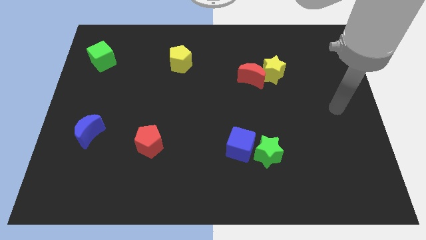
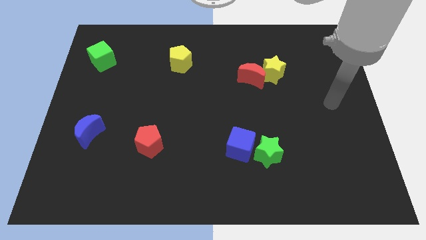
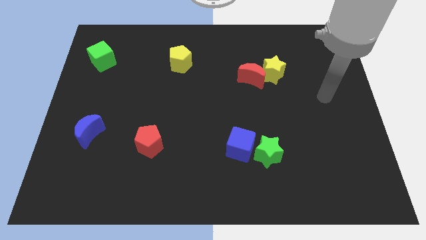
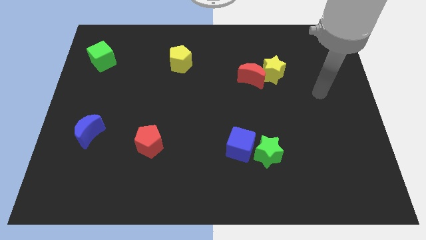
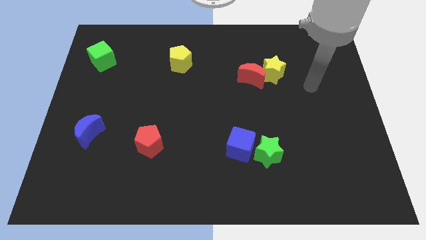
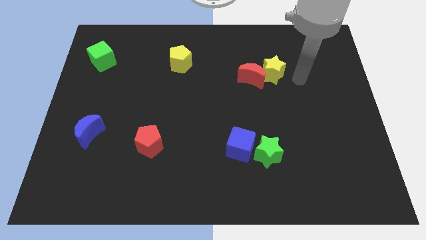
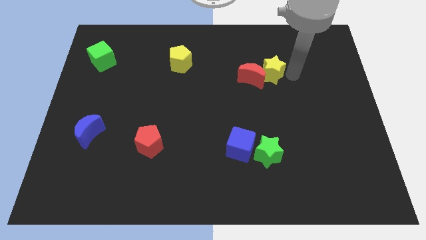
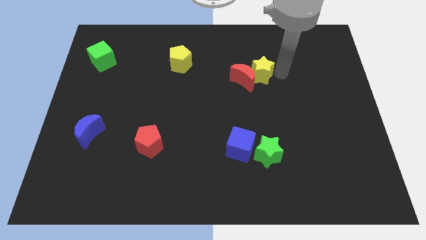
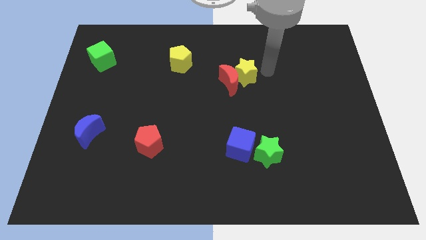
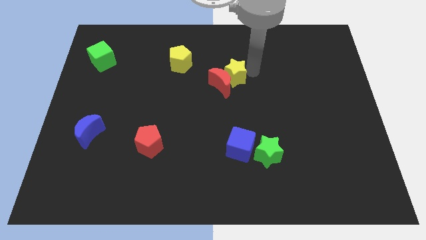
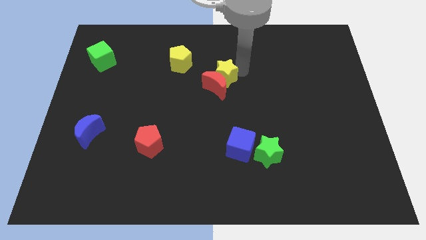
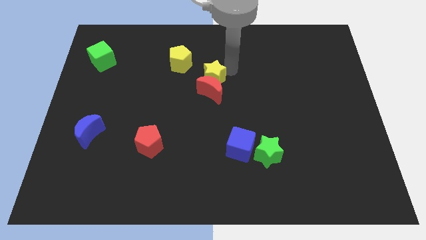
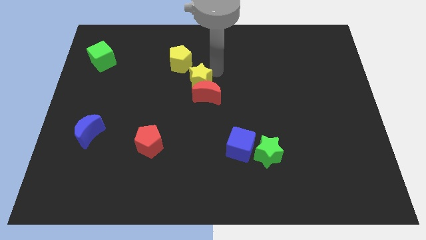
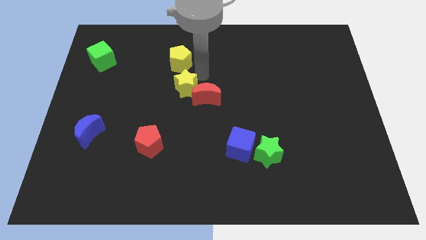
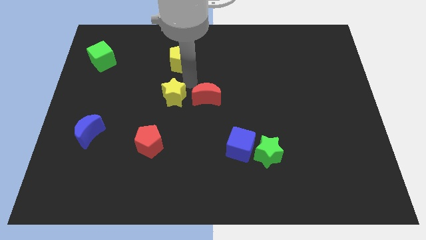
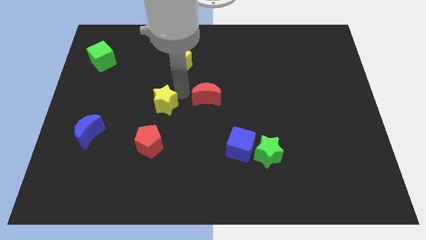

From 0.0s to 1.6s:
move the red moon away from the yellow star

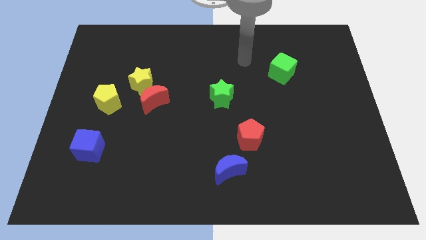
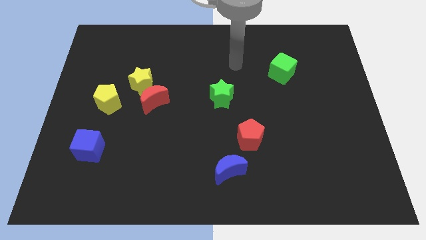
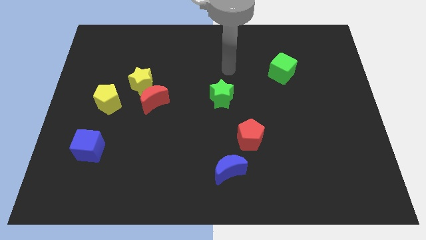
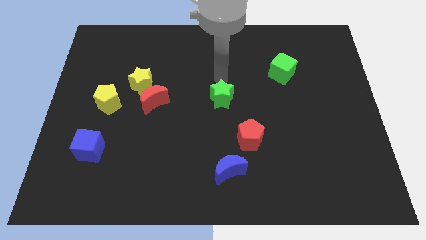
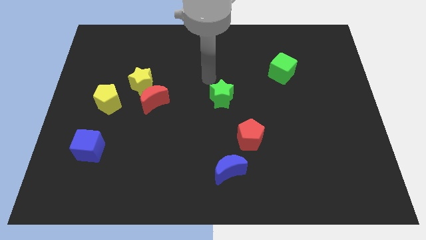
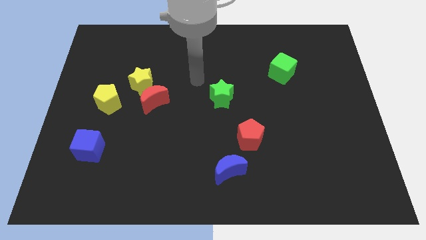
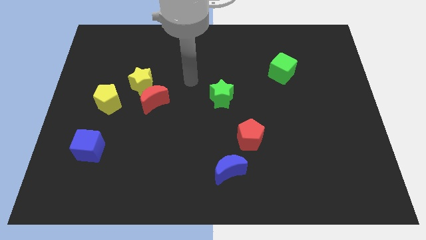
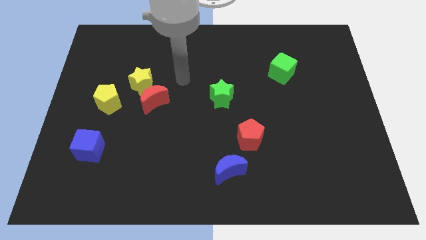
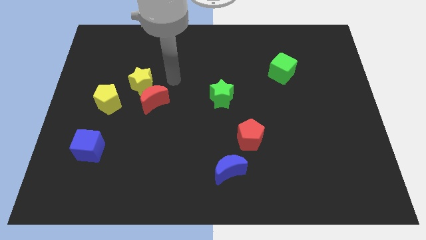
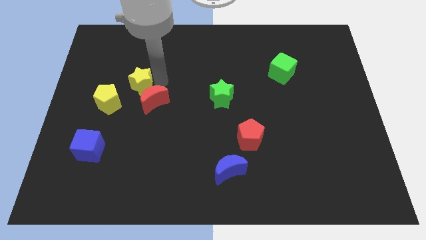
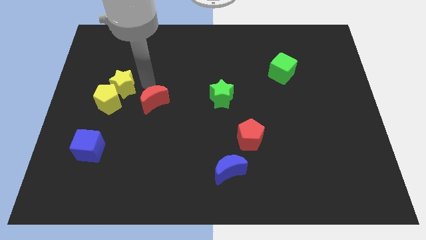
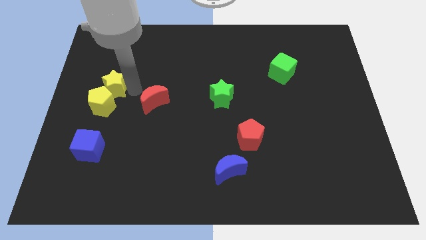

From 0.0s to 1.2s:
pull the red moon apart from the yellow star

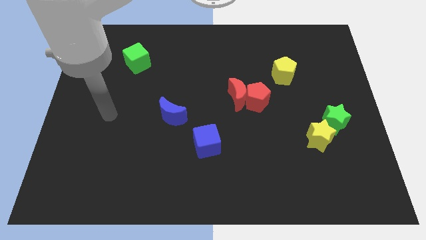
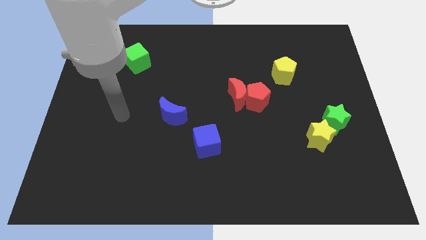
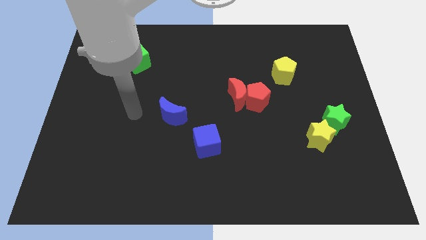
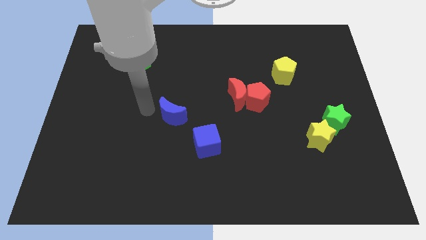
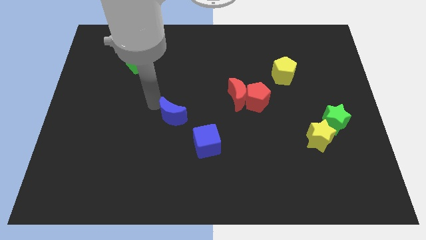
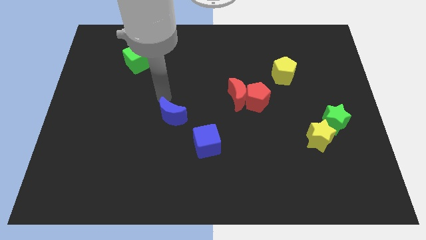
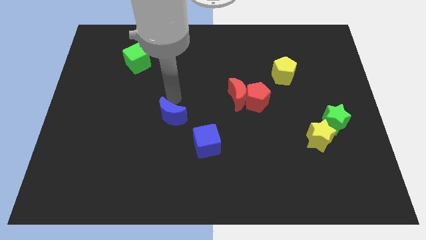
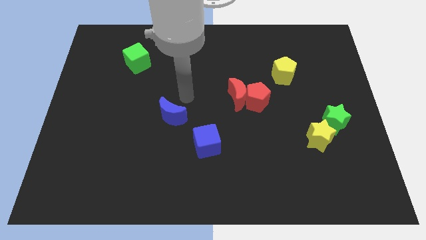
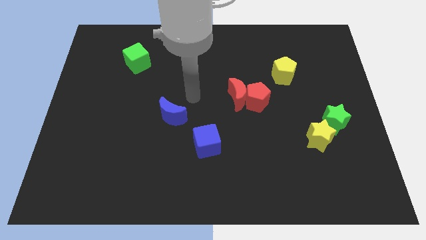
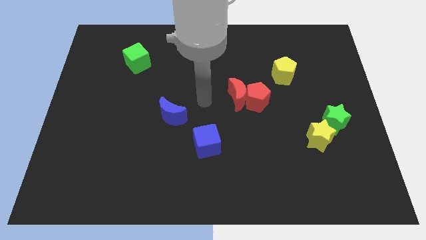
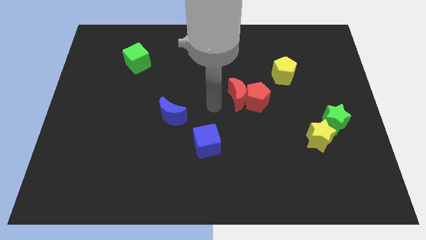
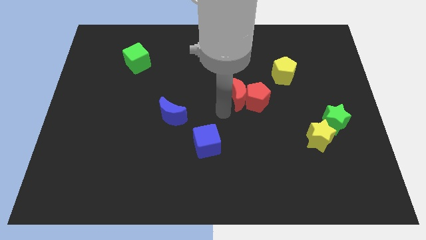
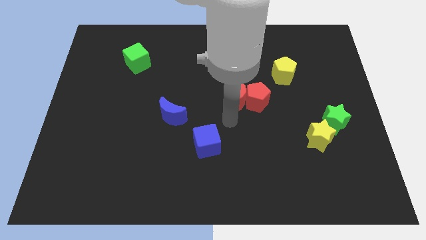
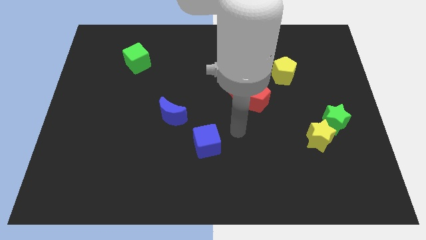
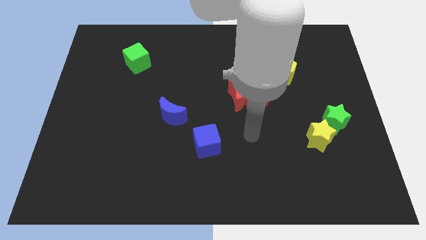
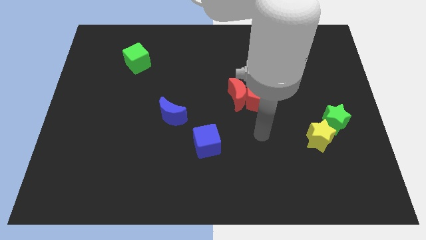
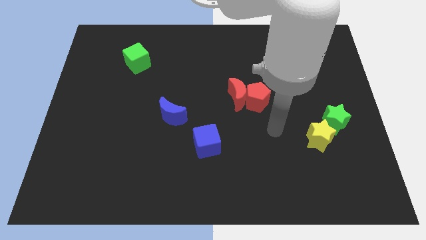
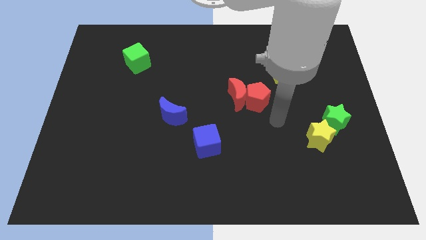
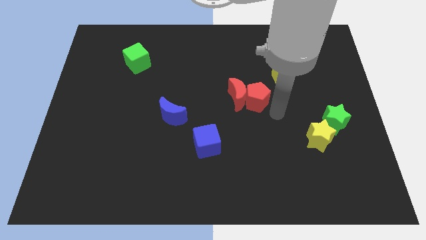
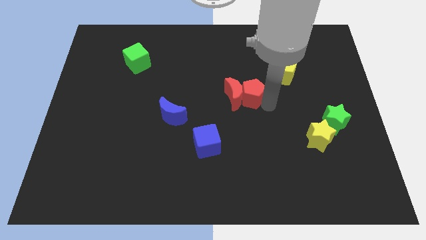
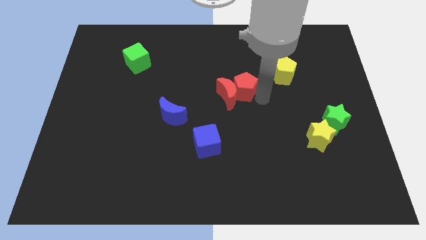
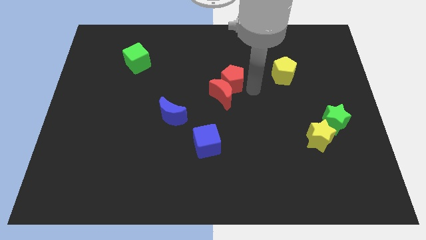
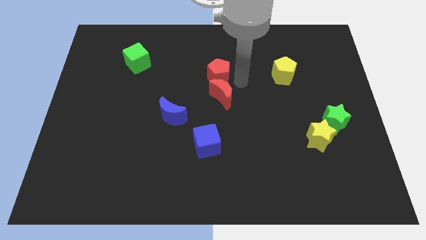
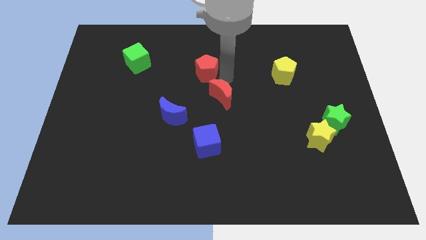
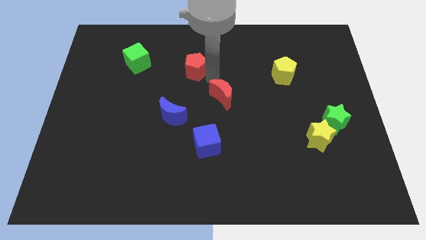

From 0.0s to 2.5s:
separate the red moon from the red pentagon

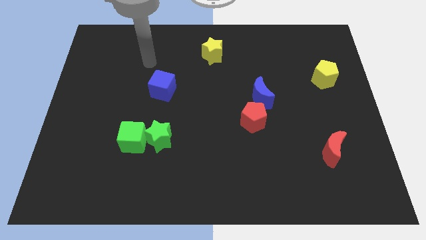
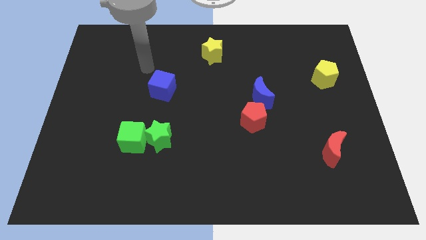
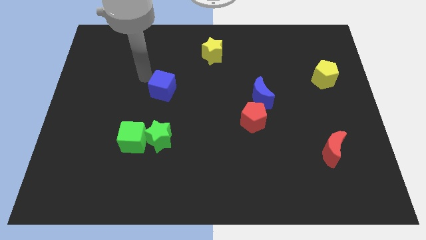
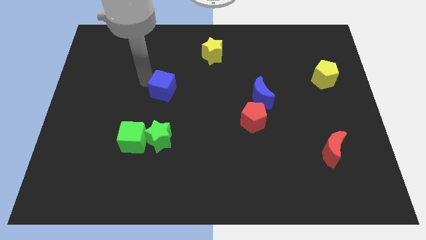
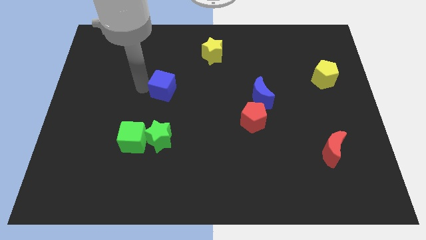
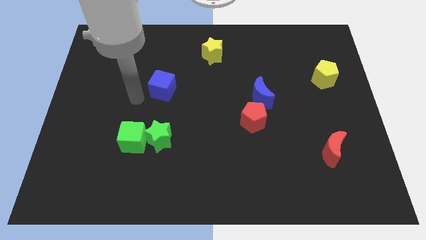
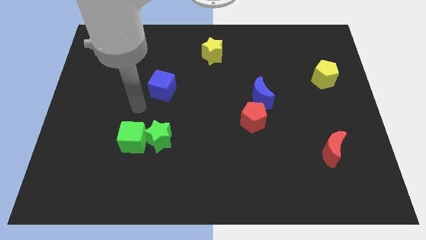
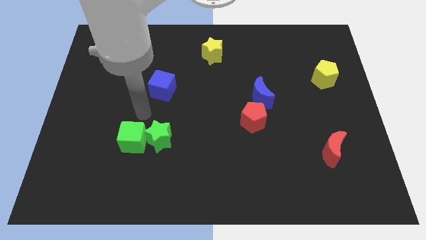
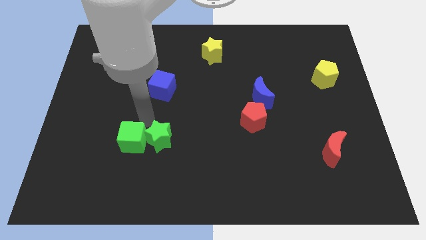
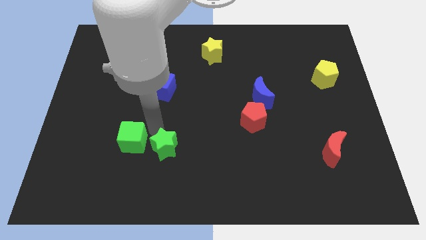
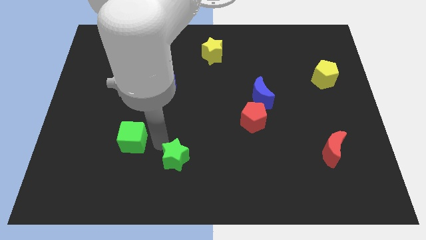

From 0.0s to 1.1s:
separate the green cube from the green star

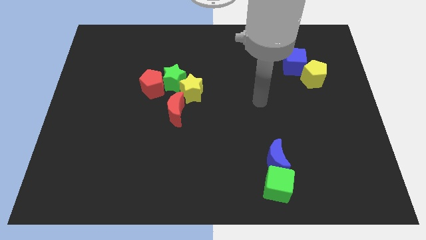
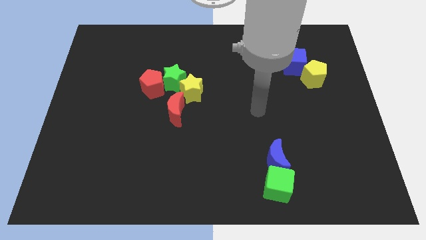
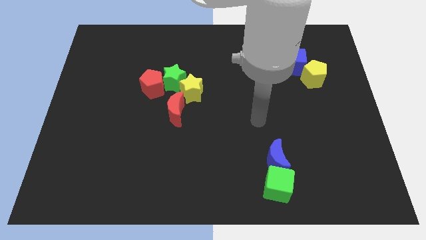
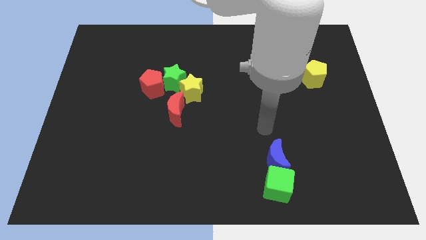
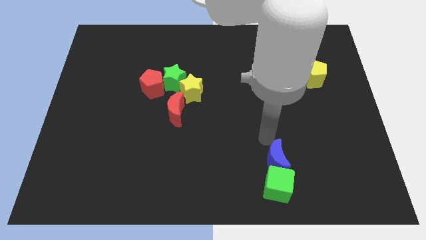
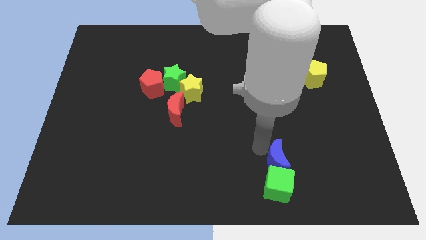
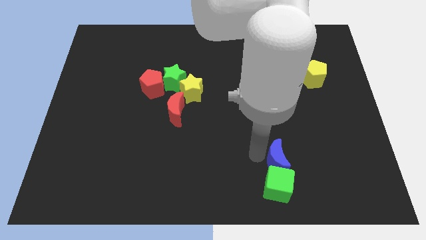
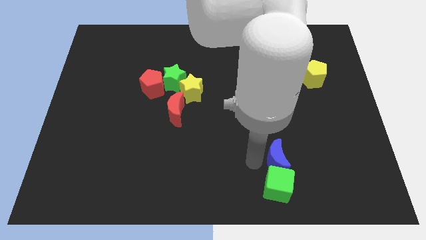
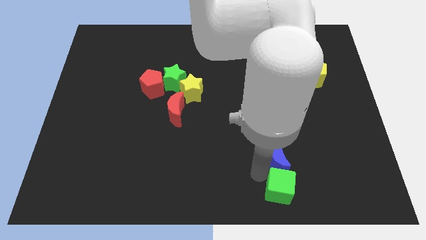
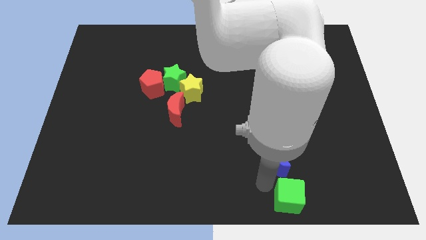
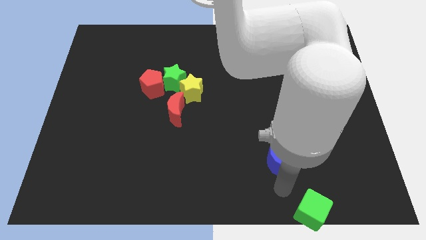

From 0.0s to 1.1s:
move the blue moon away from the green cube

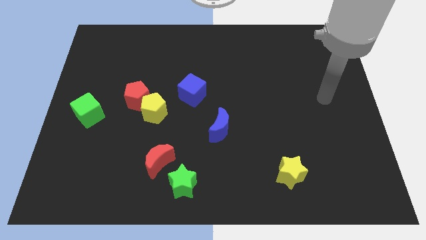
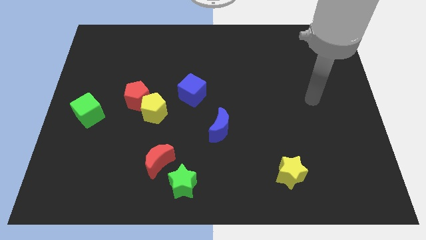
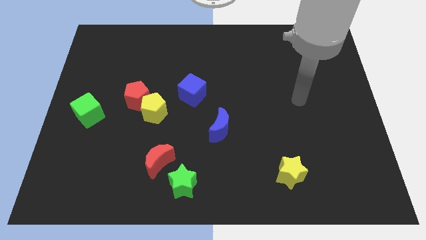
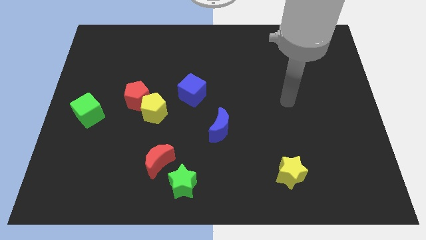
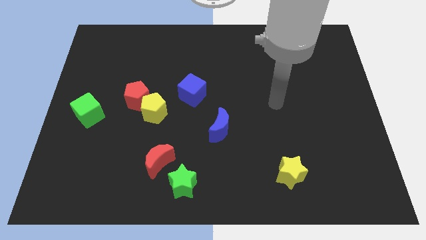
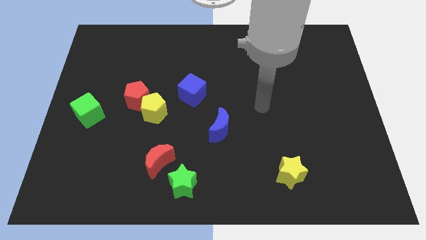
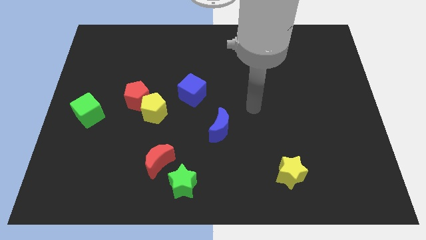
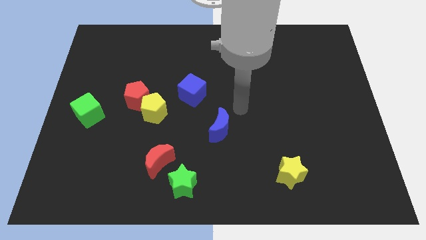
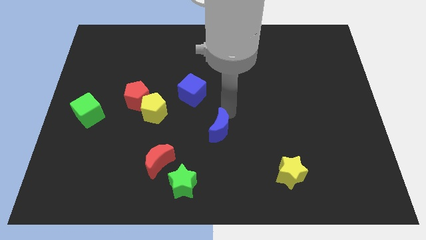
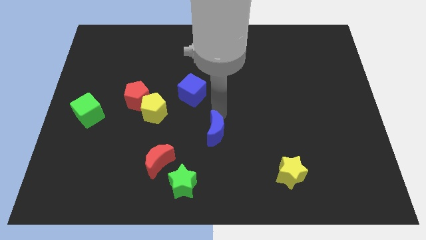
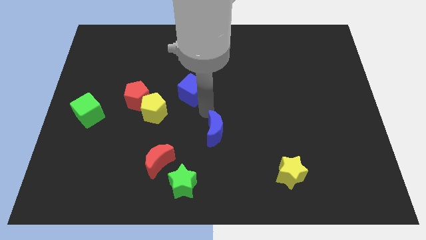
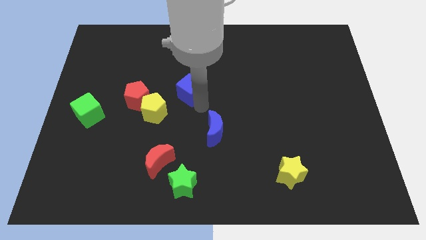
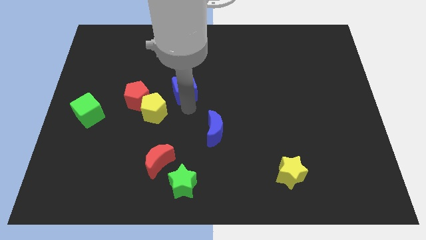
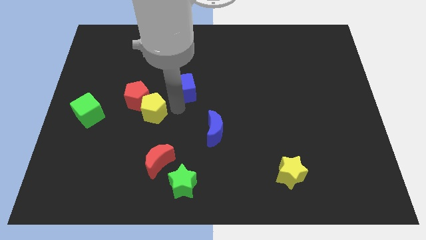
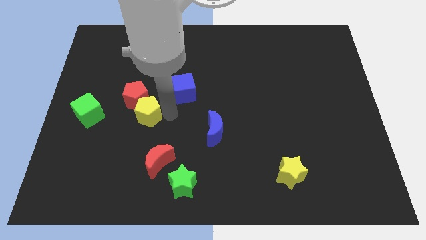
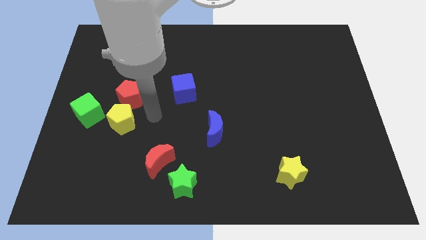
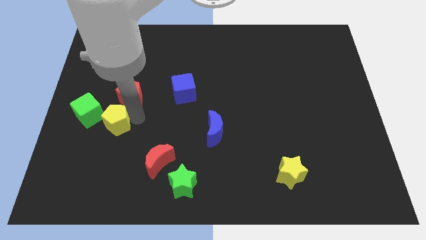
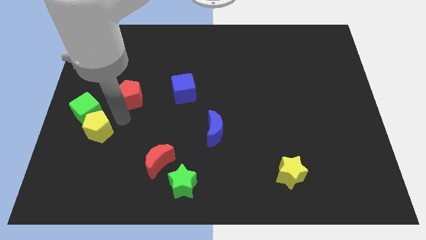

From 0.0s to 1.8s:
pull the red pentagon apart from the yellow pentagon
